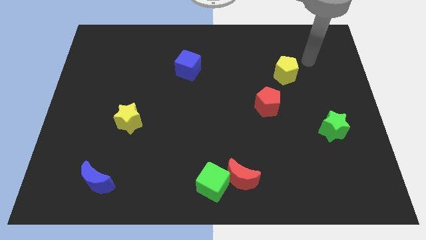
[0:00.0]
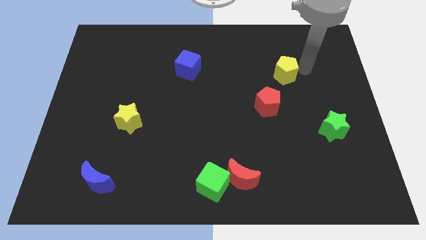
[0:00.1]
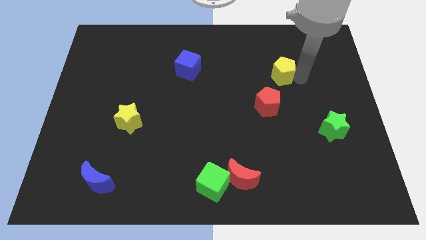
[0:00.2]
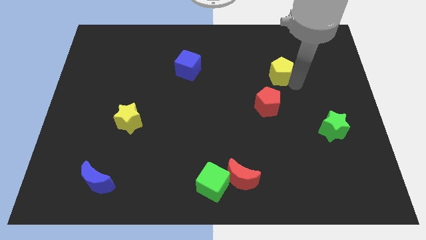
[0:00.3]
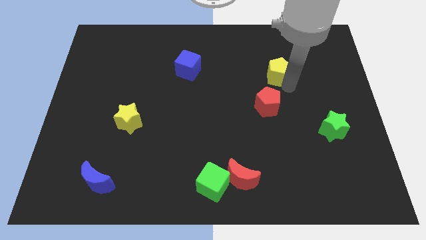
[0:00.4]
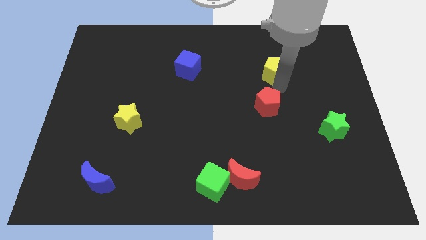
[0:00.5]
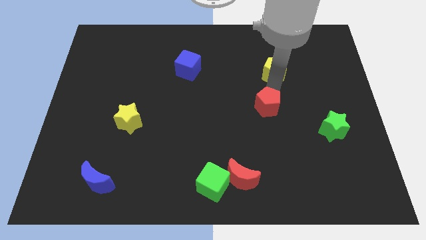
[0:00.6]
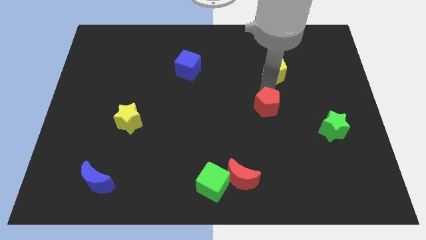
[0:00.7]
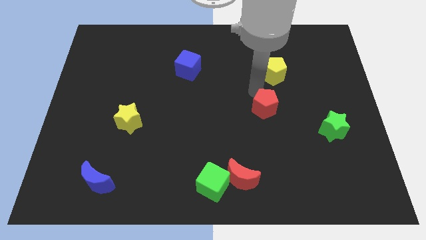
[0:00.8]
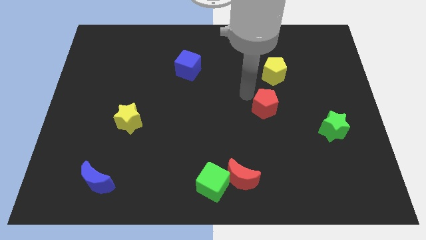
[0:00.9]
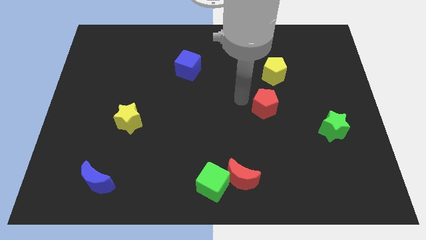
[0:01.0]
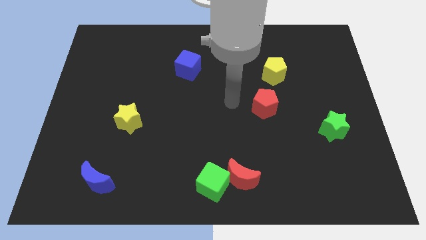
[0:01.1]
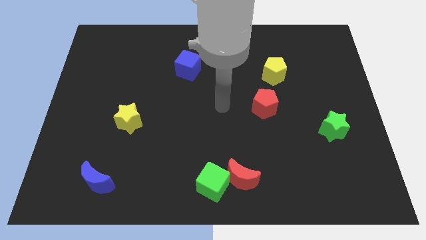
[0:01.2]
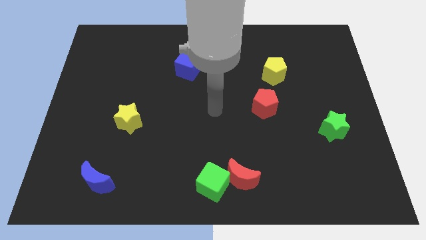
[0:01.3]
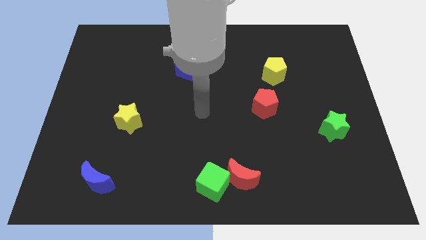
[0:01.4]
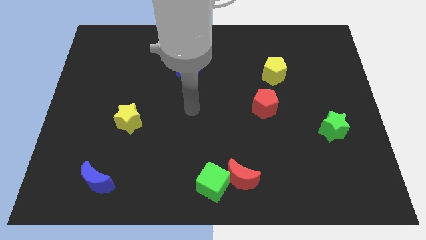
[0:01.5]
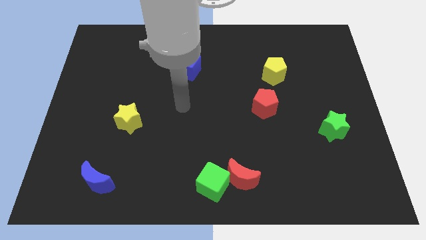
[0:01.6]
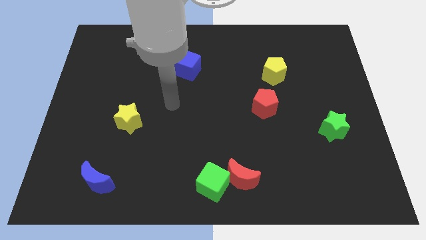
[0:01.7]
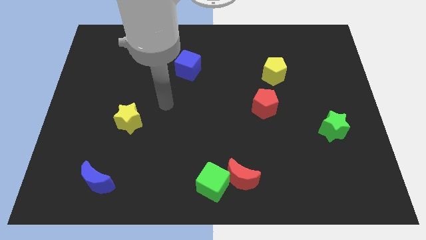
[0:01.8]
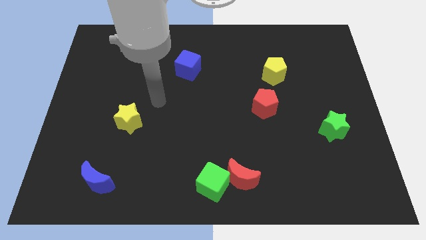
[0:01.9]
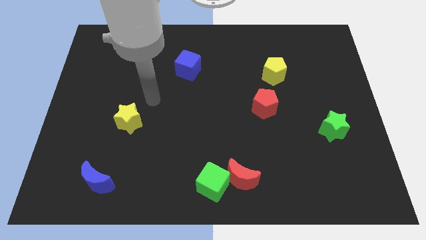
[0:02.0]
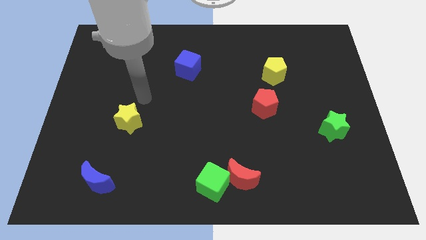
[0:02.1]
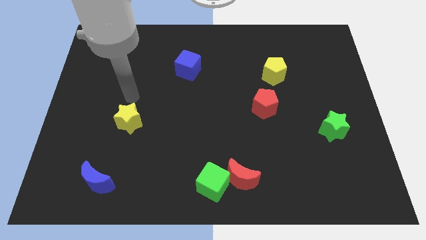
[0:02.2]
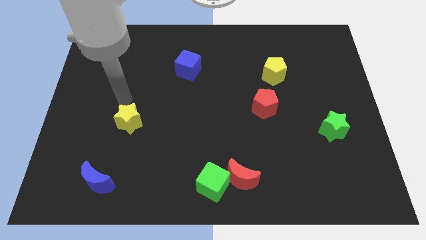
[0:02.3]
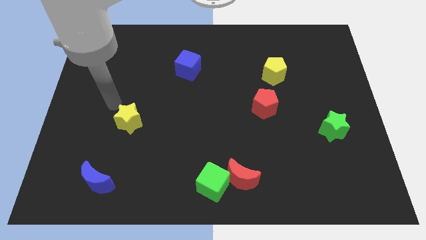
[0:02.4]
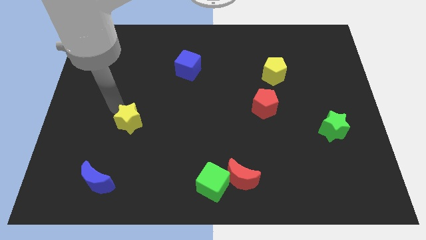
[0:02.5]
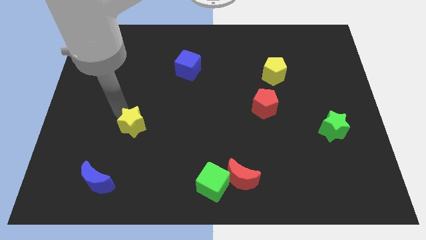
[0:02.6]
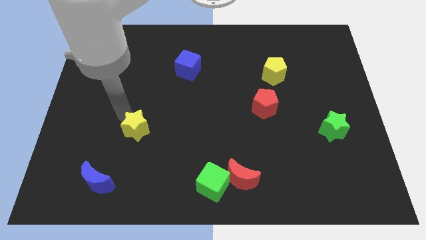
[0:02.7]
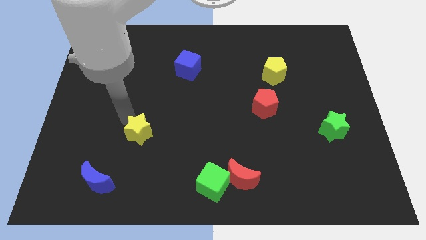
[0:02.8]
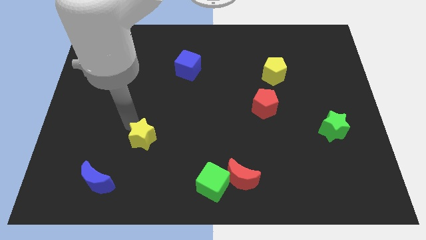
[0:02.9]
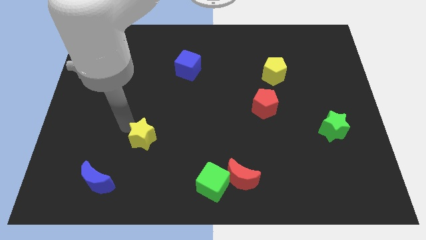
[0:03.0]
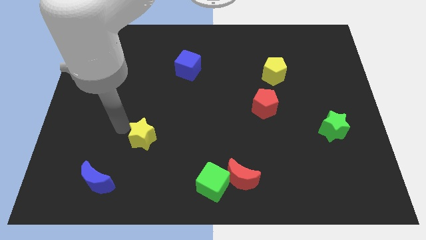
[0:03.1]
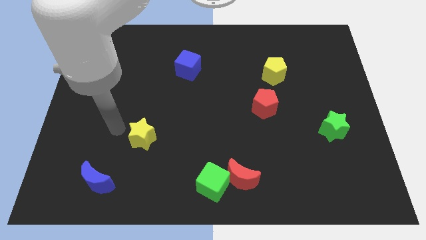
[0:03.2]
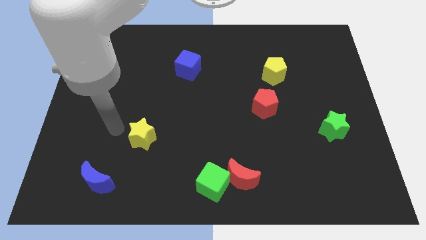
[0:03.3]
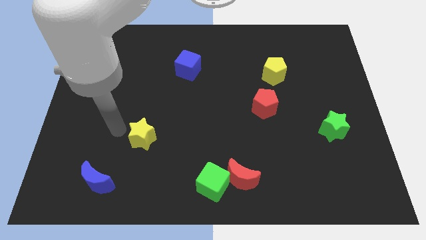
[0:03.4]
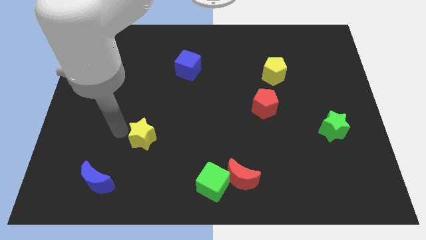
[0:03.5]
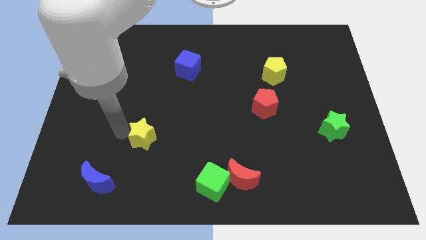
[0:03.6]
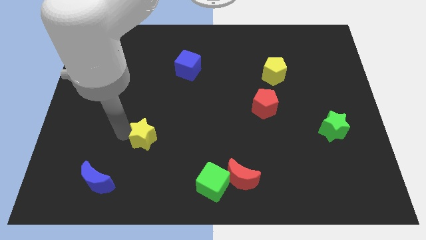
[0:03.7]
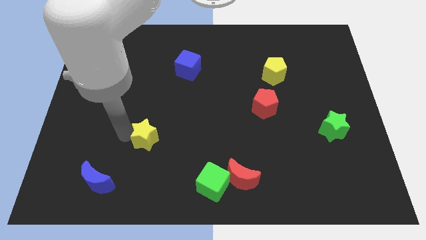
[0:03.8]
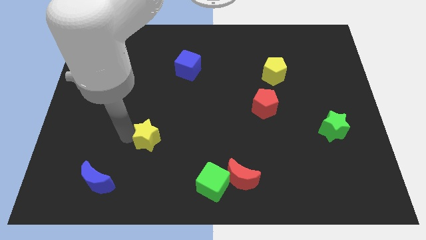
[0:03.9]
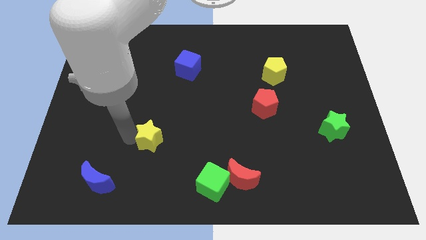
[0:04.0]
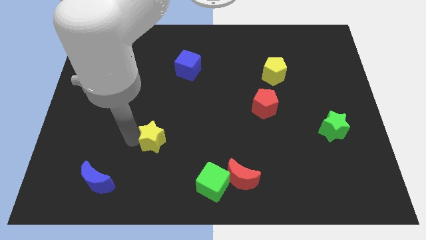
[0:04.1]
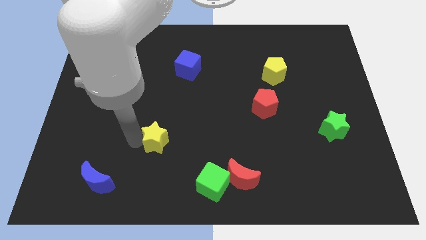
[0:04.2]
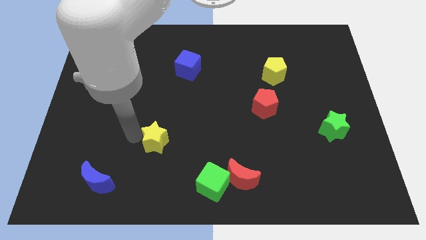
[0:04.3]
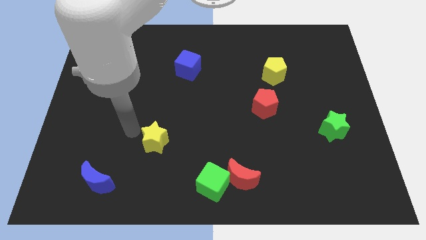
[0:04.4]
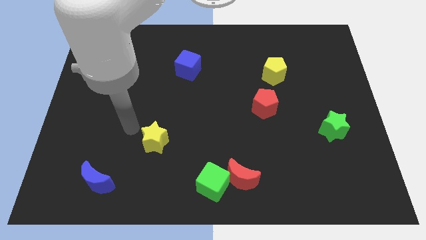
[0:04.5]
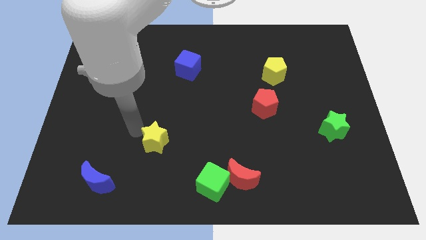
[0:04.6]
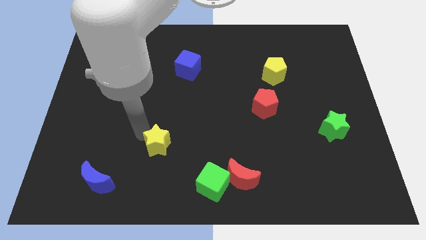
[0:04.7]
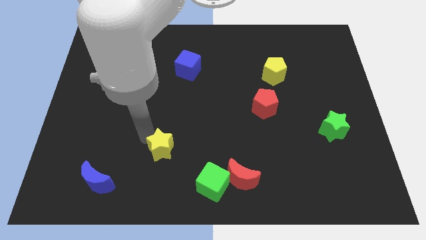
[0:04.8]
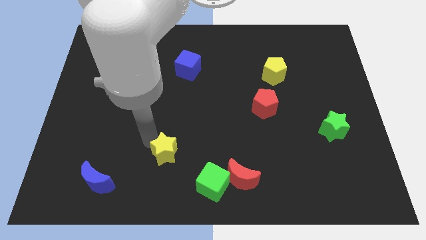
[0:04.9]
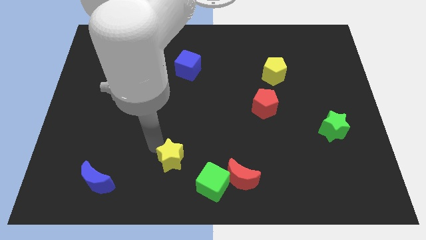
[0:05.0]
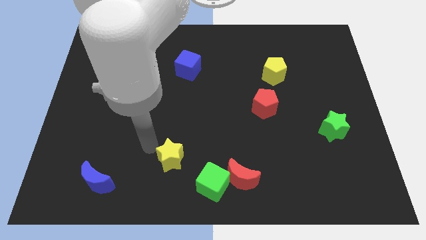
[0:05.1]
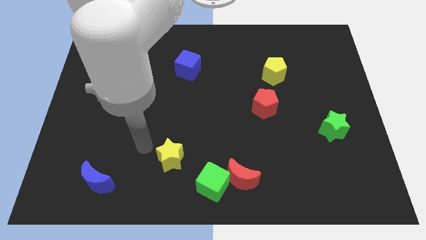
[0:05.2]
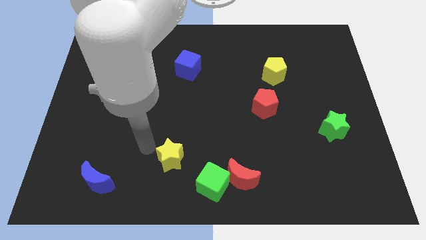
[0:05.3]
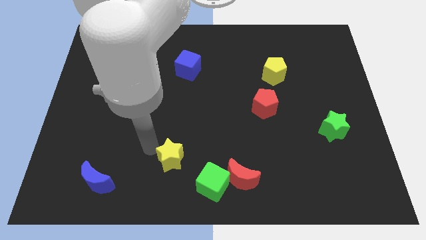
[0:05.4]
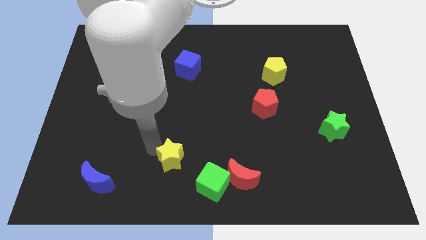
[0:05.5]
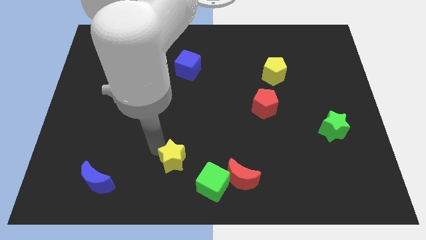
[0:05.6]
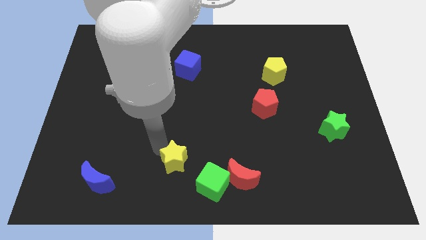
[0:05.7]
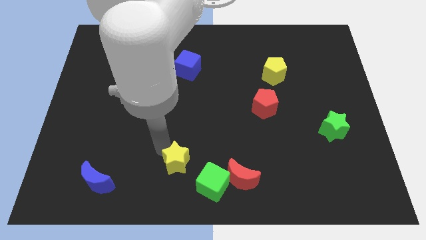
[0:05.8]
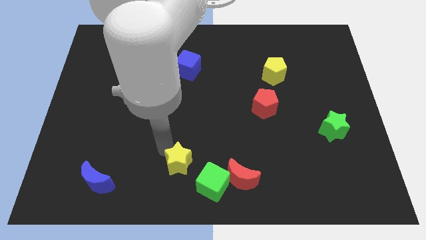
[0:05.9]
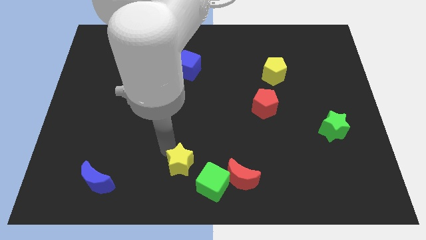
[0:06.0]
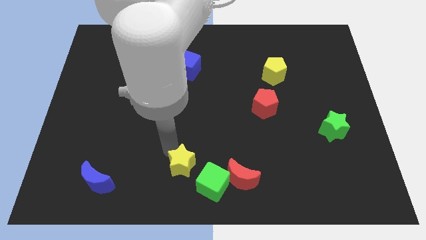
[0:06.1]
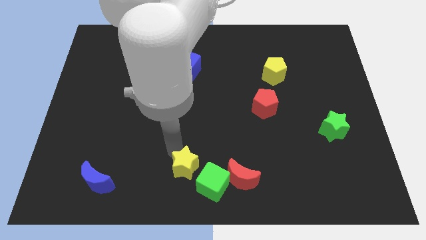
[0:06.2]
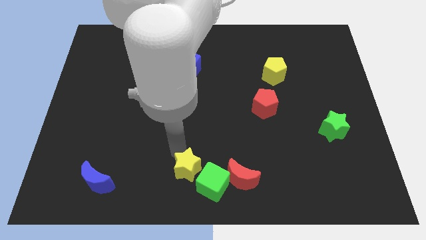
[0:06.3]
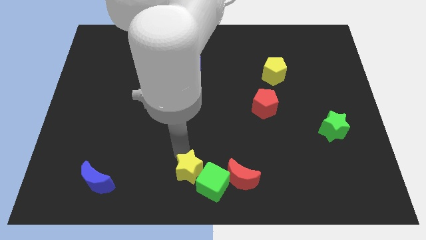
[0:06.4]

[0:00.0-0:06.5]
slide the yellow star to the green cube

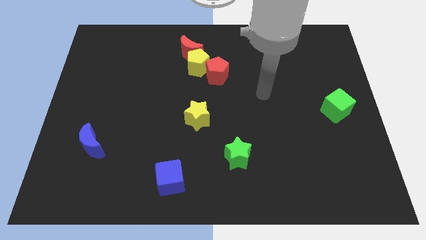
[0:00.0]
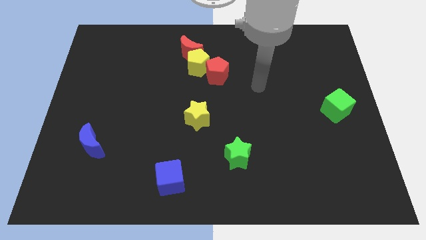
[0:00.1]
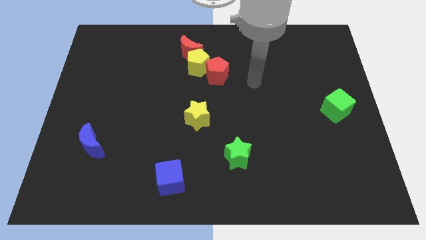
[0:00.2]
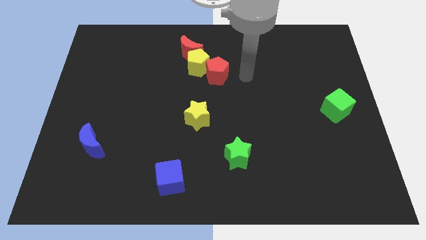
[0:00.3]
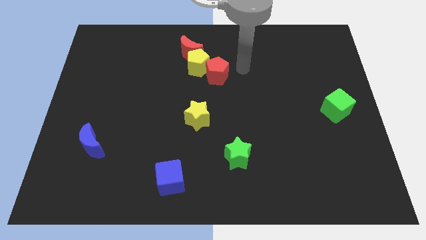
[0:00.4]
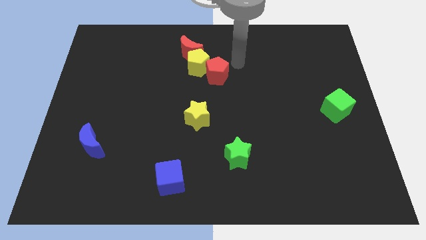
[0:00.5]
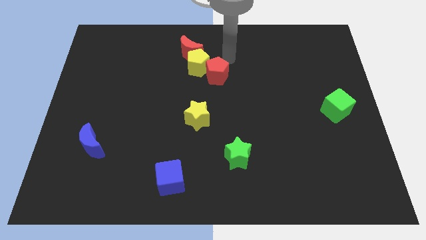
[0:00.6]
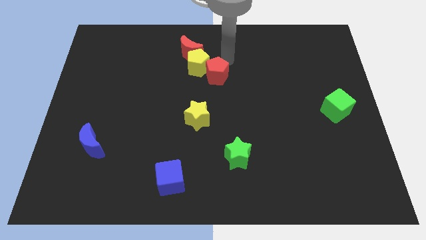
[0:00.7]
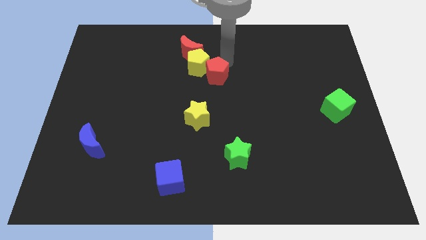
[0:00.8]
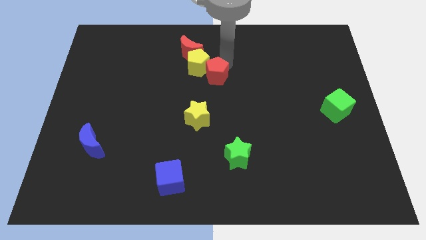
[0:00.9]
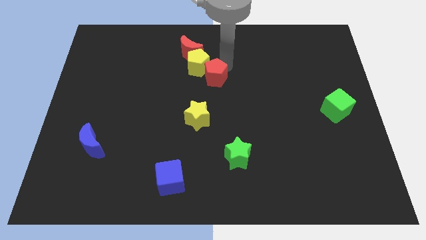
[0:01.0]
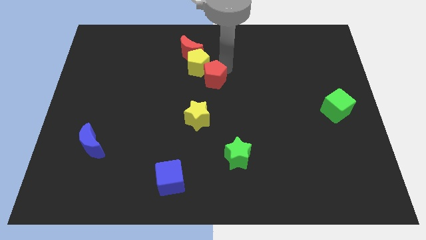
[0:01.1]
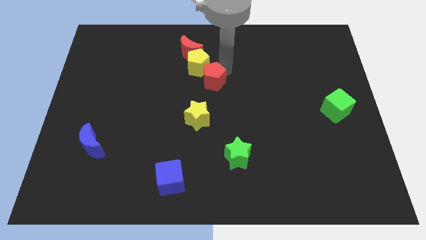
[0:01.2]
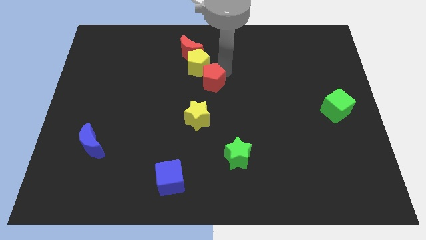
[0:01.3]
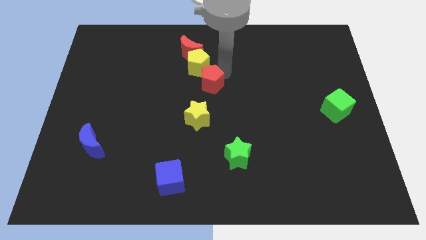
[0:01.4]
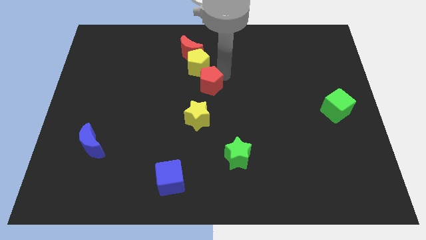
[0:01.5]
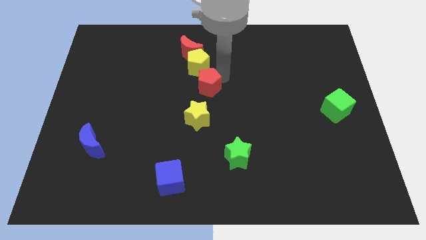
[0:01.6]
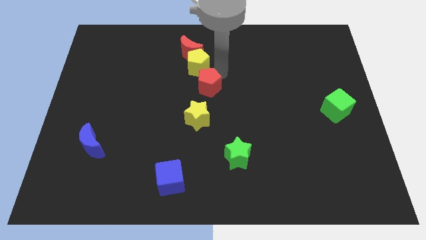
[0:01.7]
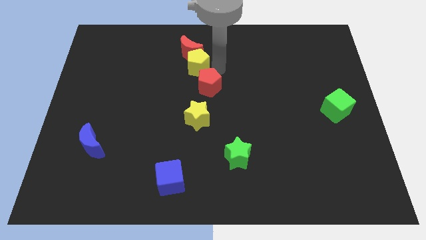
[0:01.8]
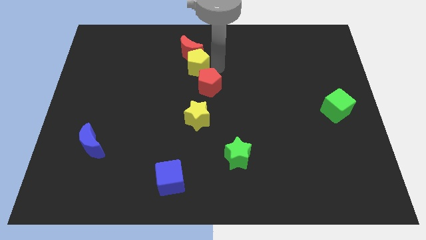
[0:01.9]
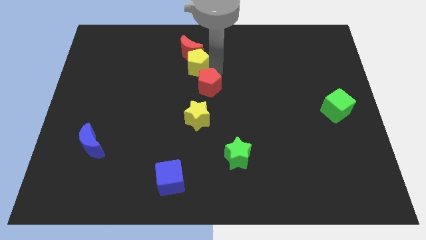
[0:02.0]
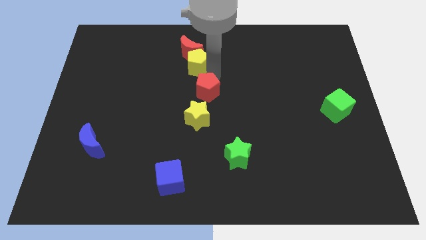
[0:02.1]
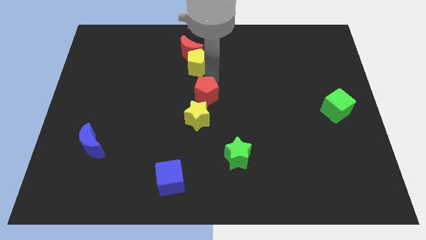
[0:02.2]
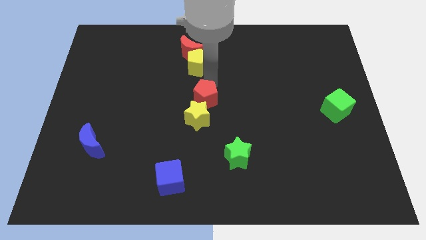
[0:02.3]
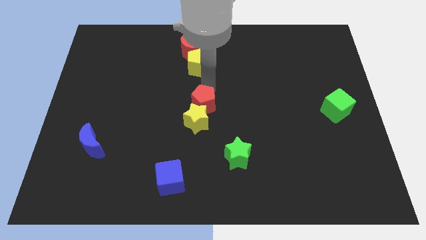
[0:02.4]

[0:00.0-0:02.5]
put the red pentagon to the yellow star
